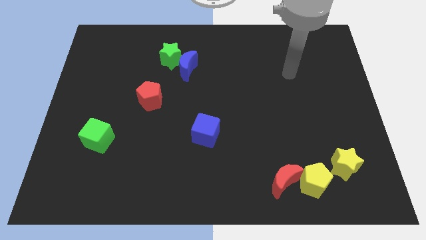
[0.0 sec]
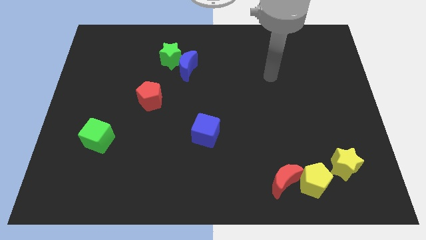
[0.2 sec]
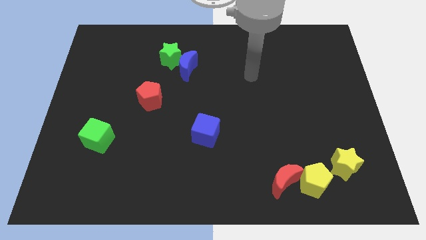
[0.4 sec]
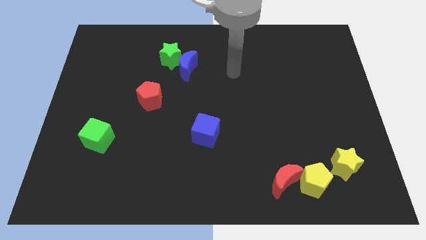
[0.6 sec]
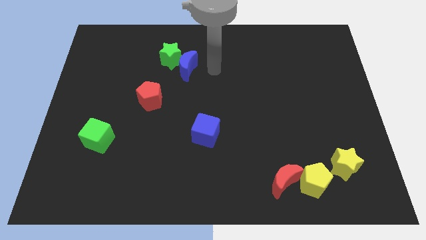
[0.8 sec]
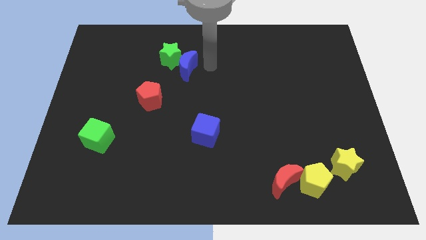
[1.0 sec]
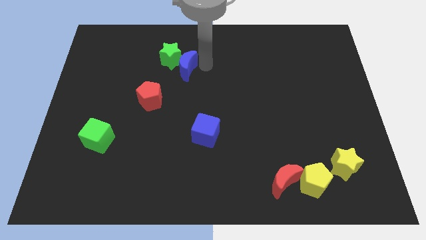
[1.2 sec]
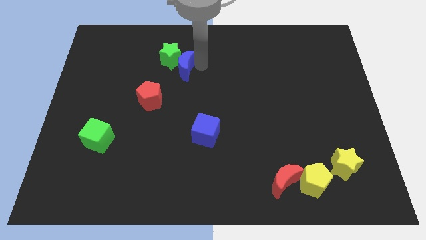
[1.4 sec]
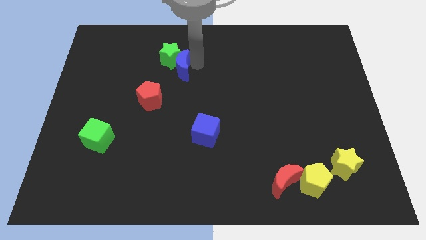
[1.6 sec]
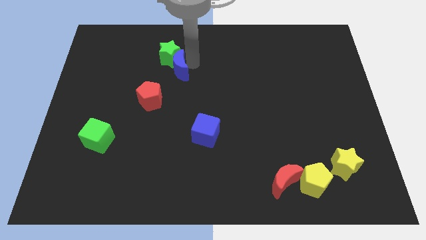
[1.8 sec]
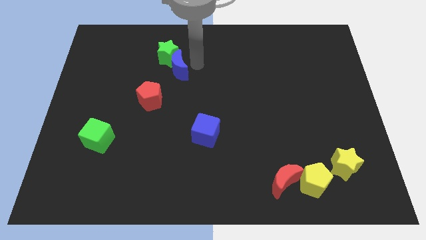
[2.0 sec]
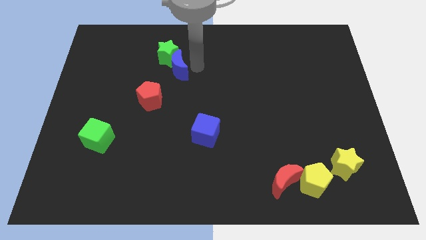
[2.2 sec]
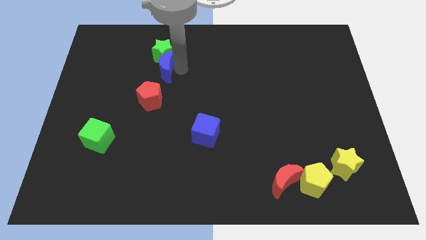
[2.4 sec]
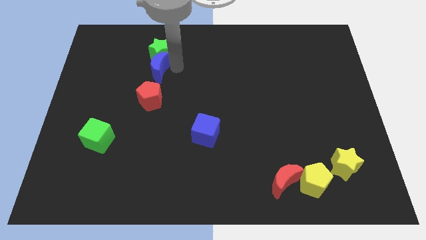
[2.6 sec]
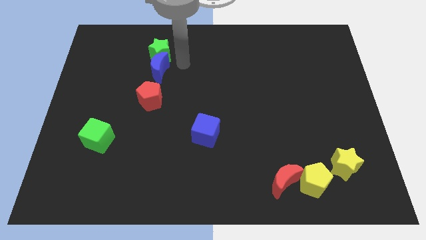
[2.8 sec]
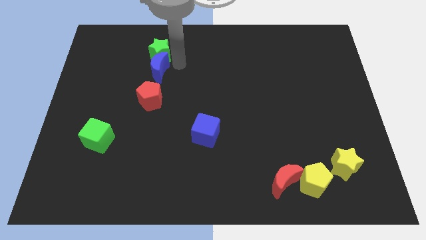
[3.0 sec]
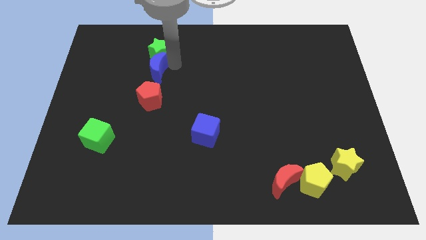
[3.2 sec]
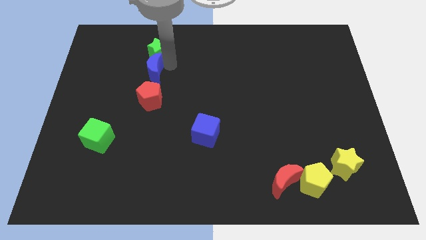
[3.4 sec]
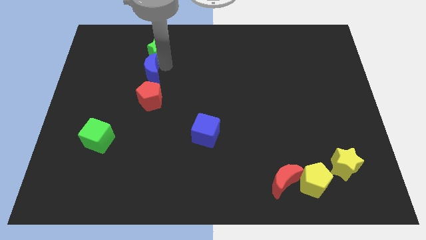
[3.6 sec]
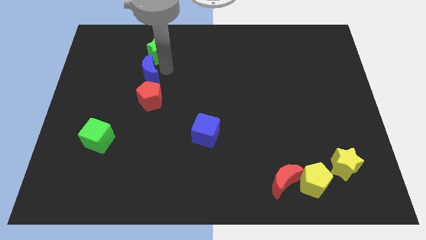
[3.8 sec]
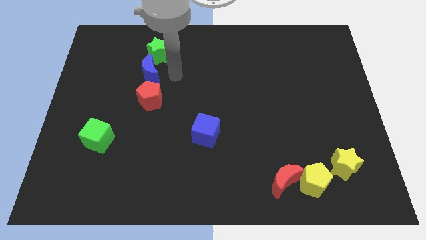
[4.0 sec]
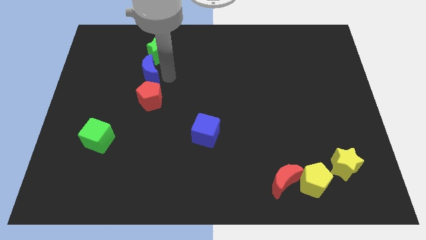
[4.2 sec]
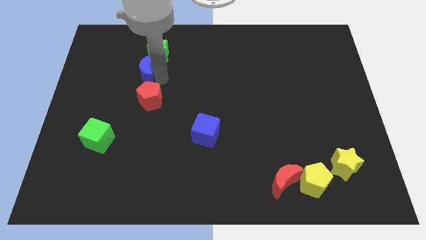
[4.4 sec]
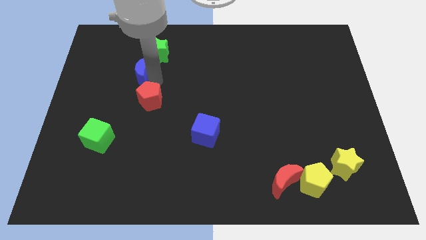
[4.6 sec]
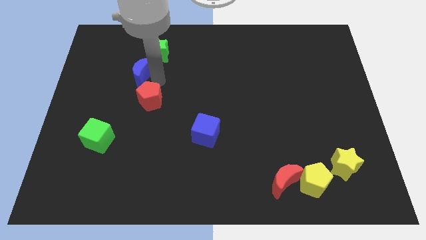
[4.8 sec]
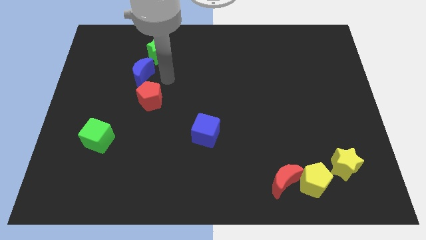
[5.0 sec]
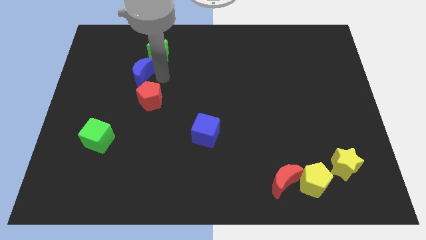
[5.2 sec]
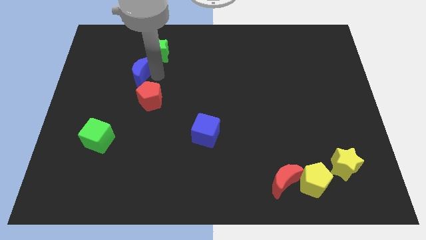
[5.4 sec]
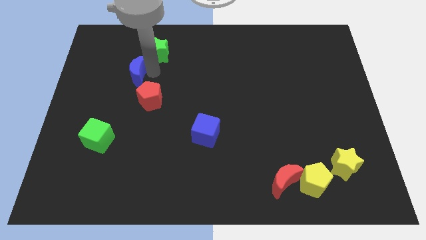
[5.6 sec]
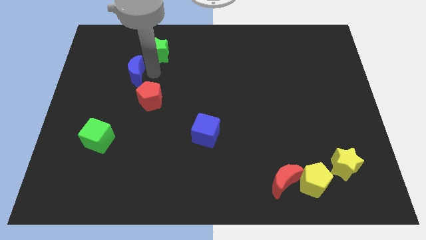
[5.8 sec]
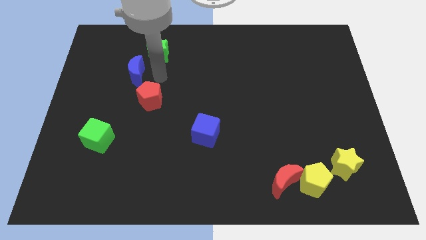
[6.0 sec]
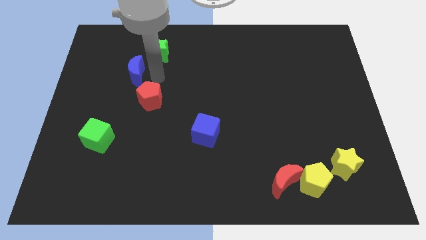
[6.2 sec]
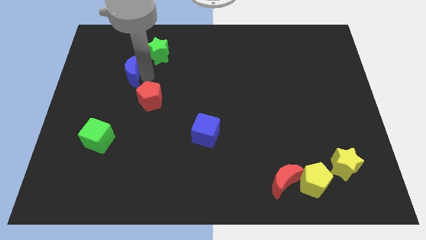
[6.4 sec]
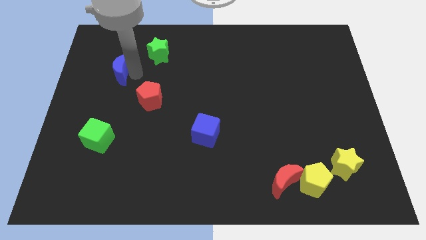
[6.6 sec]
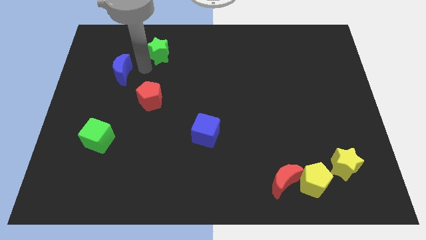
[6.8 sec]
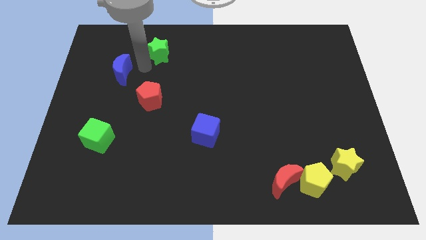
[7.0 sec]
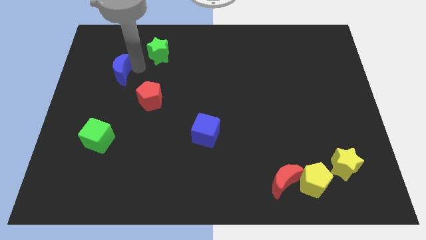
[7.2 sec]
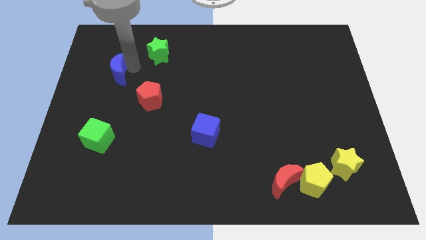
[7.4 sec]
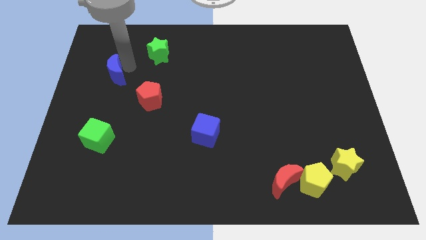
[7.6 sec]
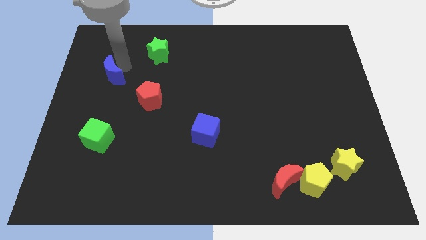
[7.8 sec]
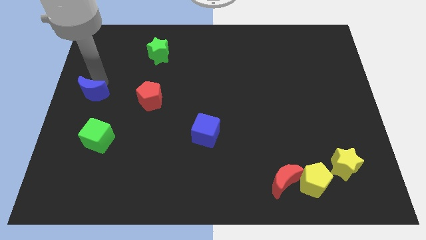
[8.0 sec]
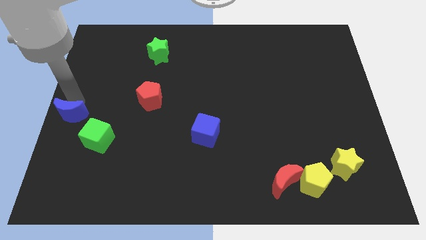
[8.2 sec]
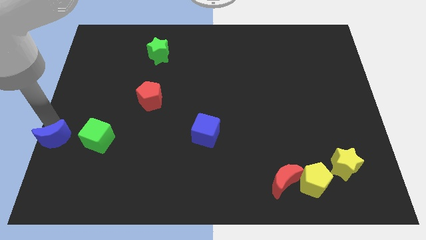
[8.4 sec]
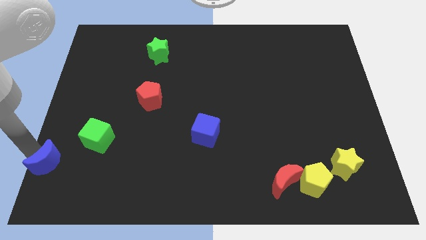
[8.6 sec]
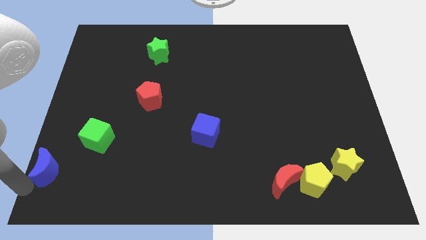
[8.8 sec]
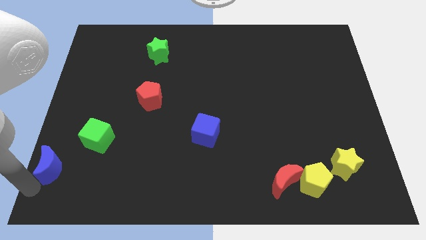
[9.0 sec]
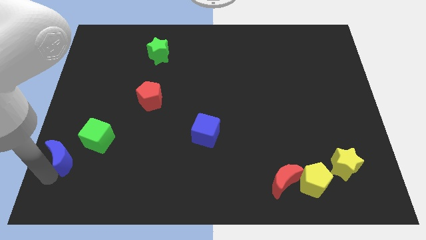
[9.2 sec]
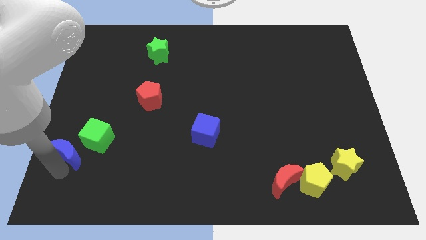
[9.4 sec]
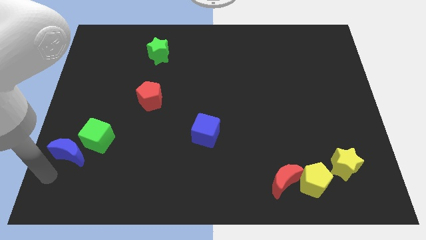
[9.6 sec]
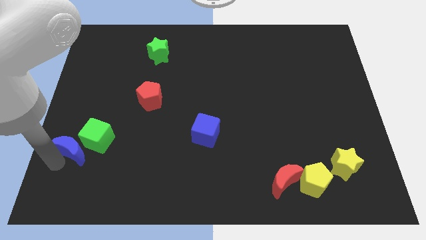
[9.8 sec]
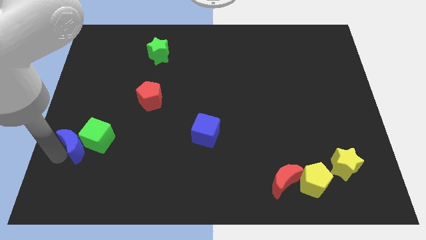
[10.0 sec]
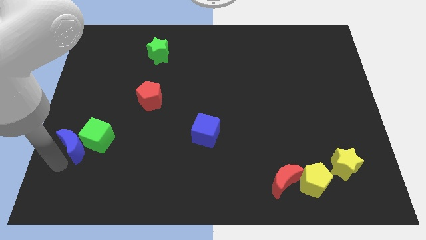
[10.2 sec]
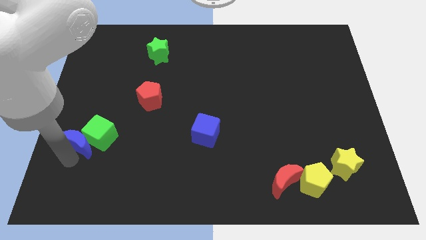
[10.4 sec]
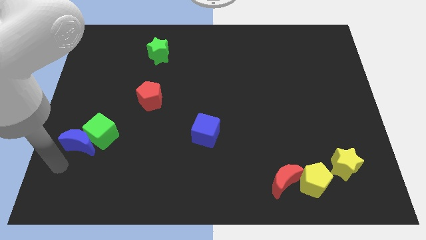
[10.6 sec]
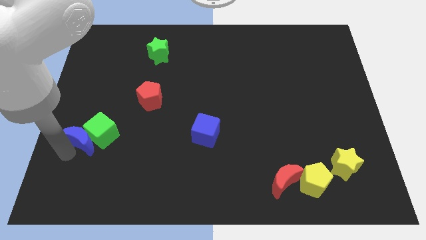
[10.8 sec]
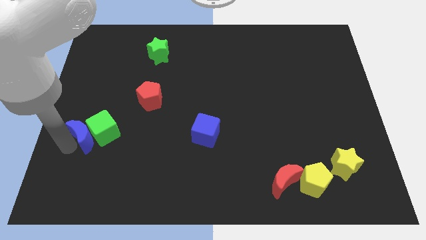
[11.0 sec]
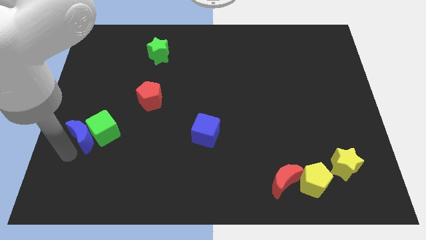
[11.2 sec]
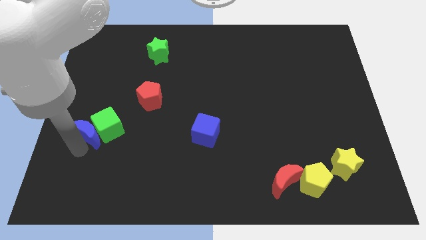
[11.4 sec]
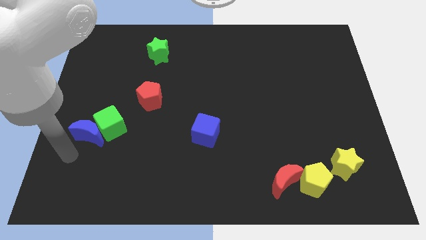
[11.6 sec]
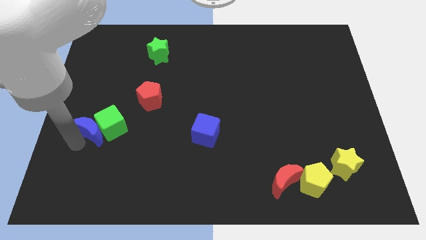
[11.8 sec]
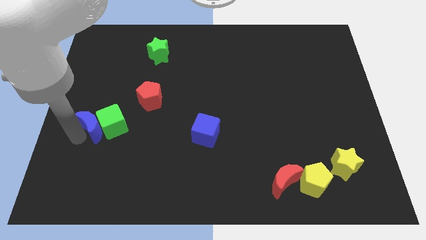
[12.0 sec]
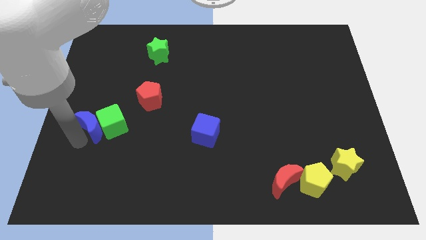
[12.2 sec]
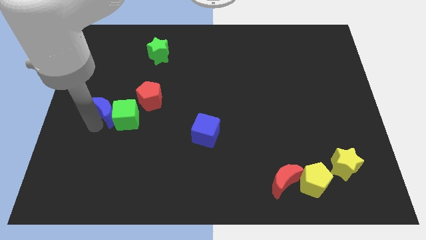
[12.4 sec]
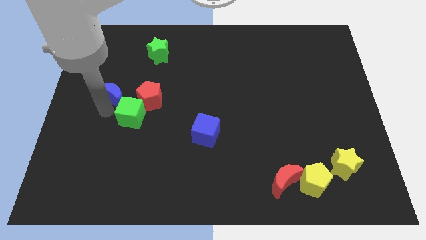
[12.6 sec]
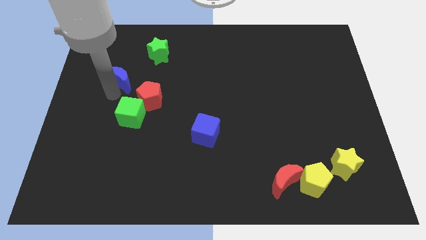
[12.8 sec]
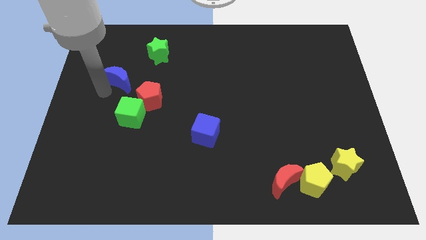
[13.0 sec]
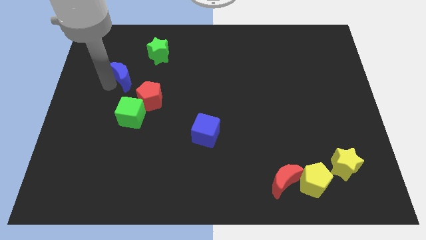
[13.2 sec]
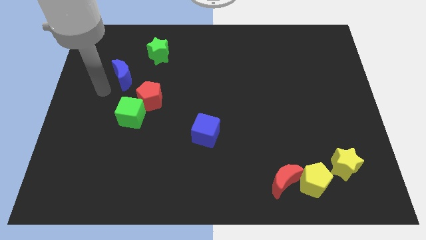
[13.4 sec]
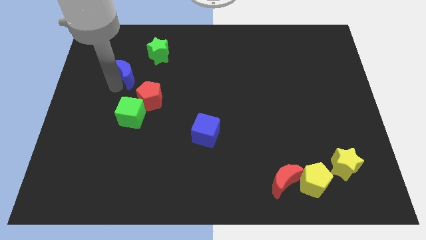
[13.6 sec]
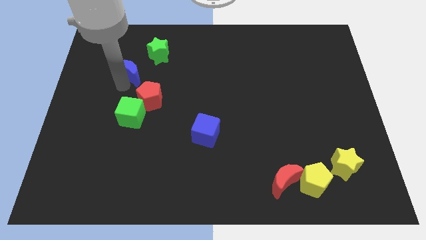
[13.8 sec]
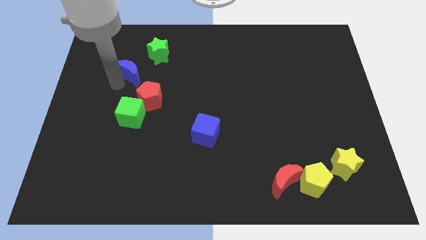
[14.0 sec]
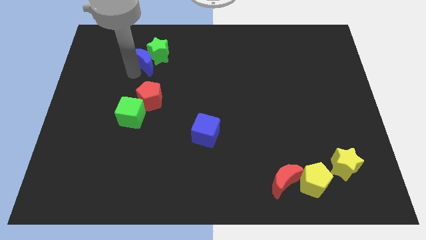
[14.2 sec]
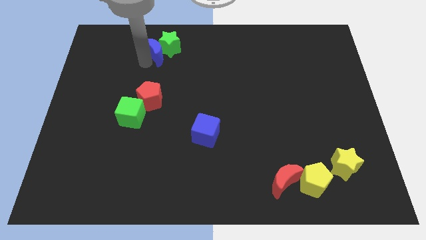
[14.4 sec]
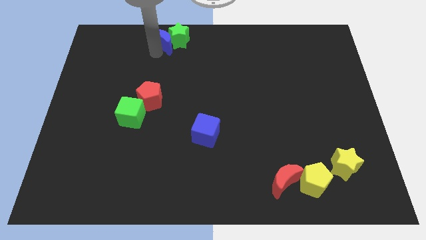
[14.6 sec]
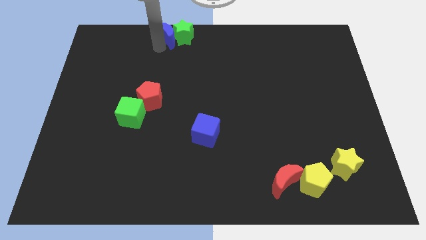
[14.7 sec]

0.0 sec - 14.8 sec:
slide the blue moon to the towards your base
